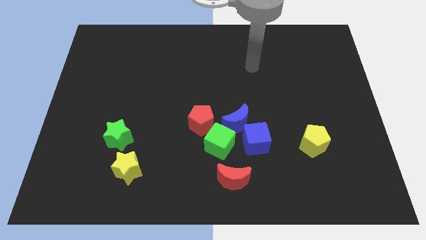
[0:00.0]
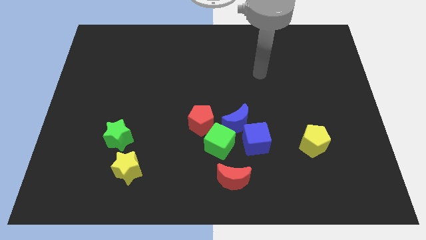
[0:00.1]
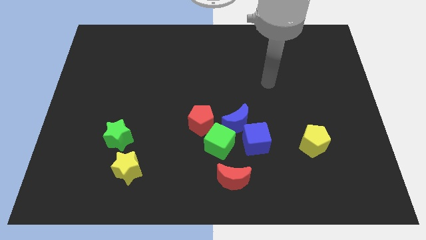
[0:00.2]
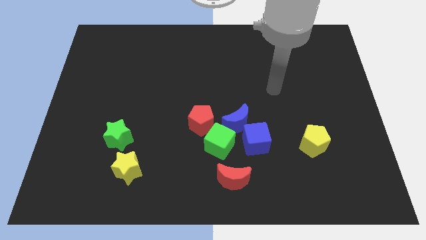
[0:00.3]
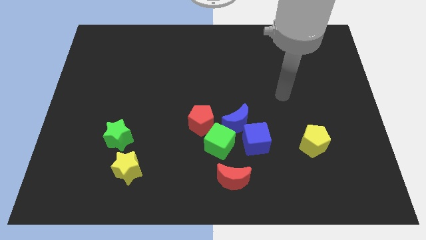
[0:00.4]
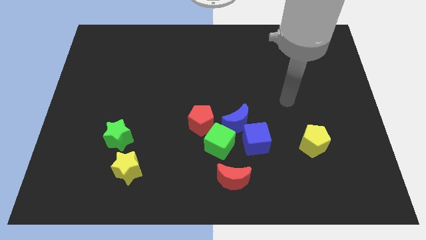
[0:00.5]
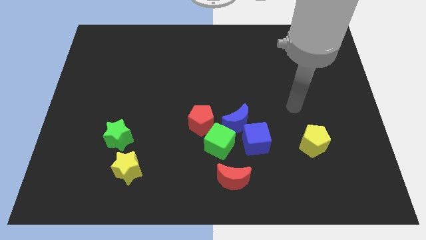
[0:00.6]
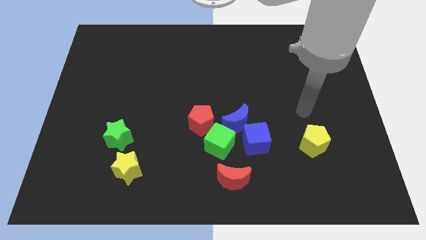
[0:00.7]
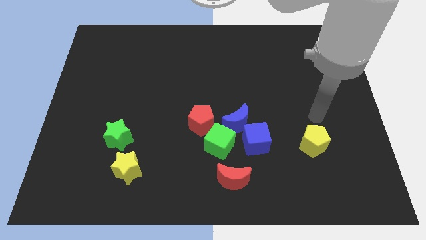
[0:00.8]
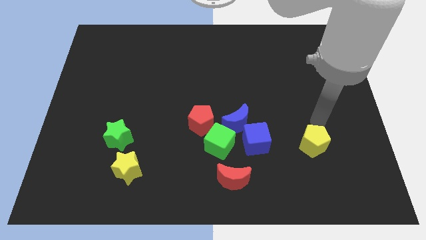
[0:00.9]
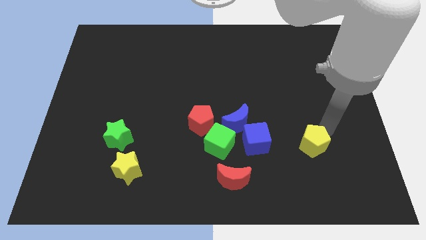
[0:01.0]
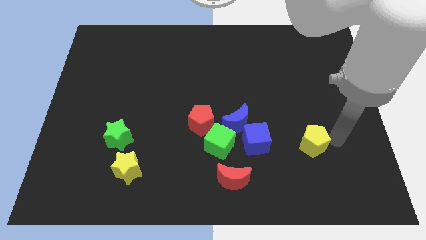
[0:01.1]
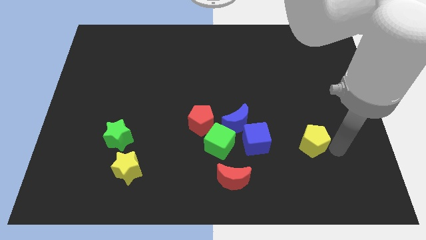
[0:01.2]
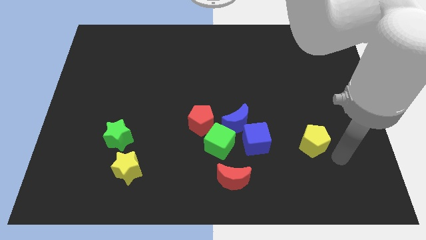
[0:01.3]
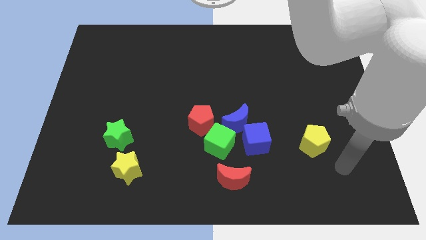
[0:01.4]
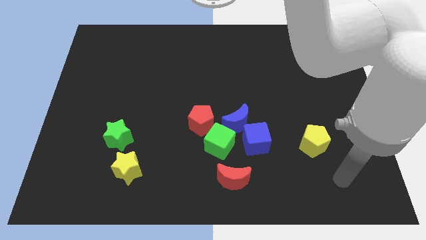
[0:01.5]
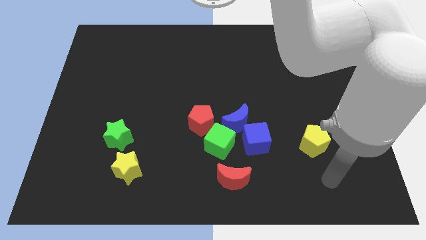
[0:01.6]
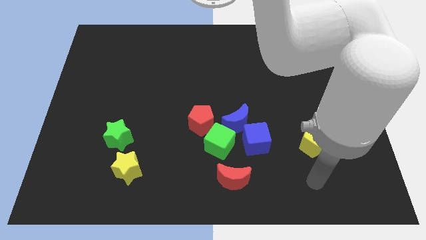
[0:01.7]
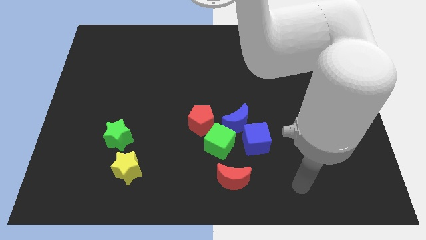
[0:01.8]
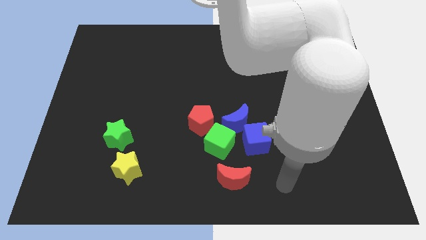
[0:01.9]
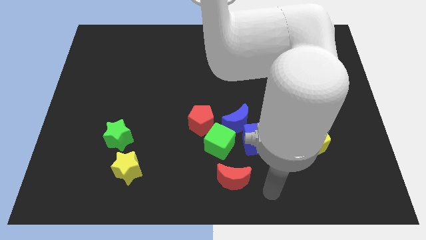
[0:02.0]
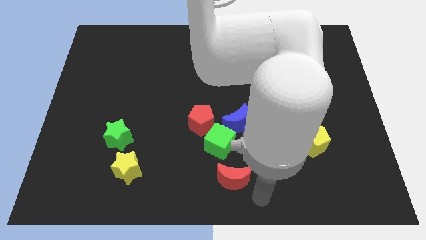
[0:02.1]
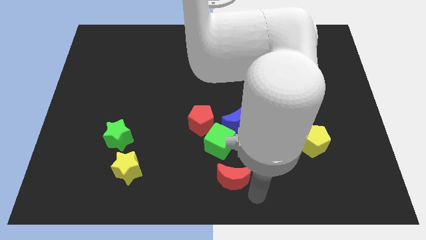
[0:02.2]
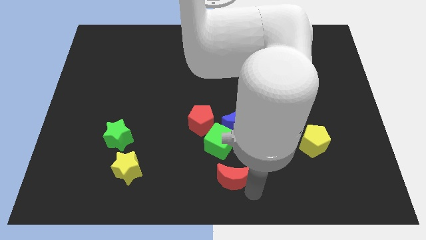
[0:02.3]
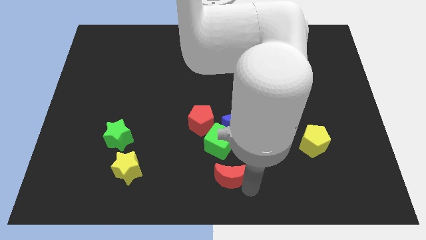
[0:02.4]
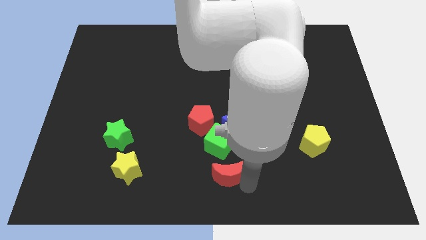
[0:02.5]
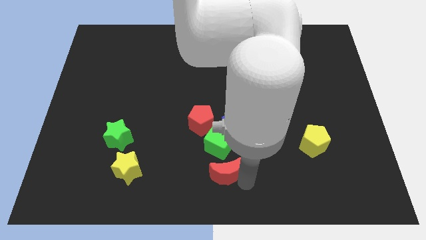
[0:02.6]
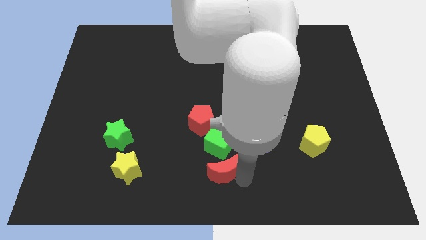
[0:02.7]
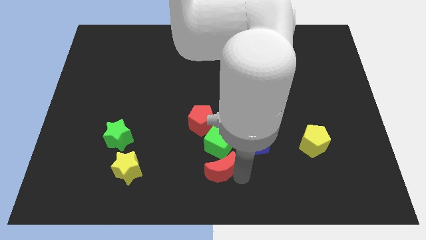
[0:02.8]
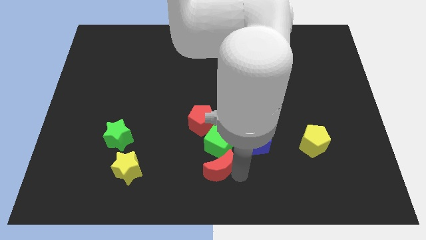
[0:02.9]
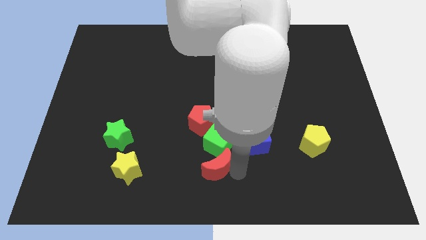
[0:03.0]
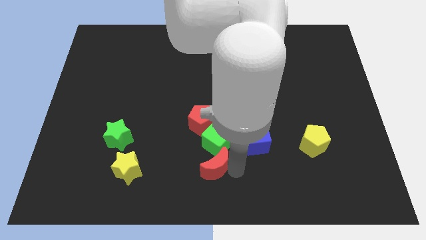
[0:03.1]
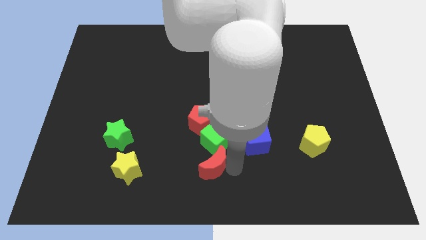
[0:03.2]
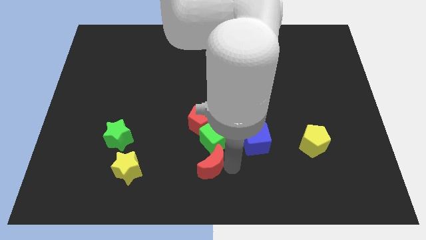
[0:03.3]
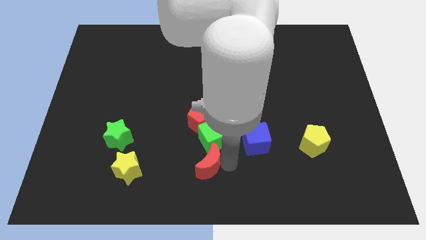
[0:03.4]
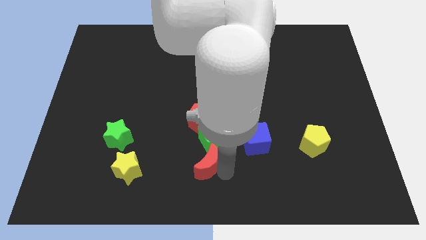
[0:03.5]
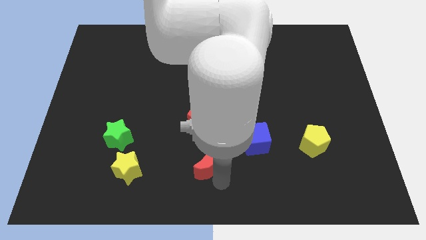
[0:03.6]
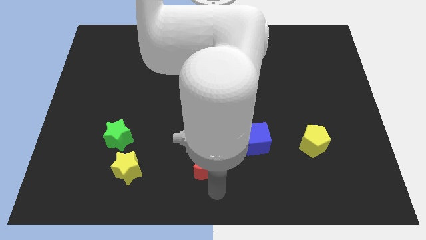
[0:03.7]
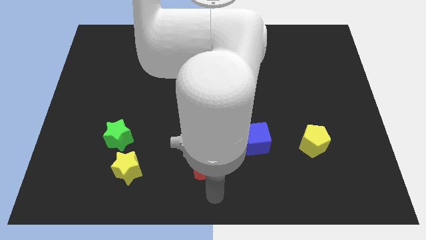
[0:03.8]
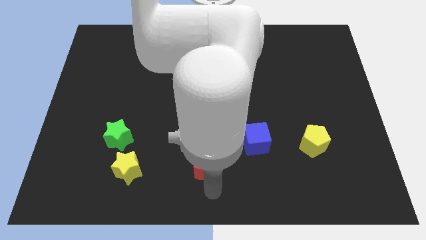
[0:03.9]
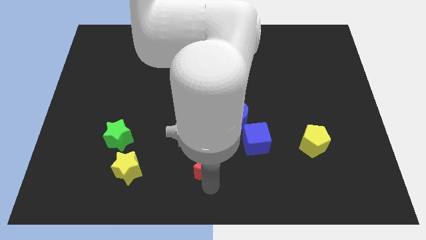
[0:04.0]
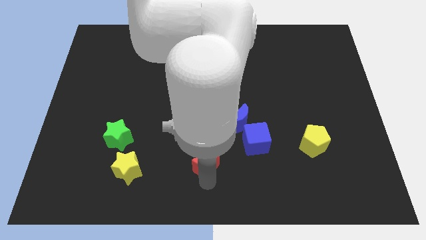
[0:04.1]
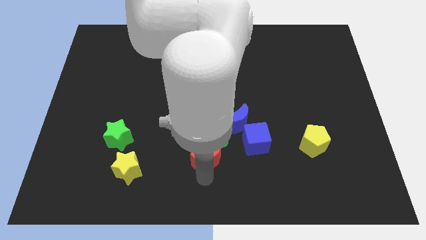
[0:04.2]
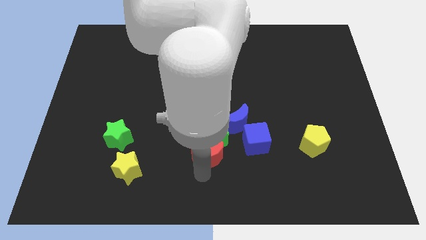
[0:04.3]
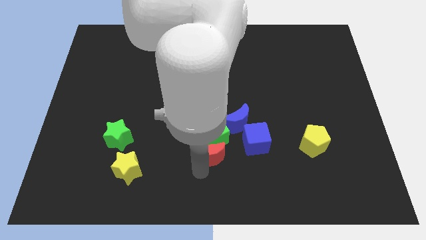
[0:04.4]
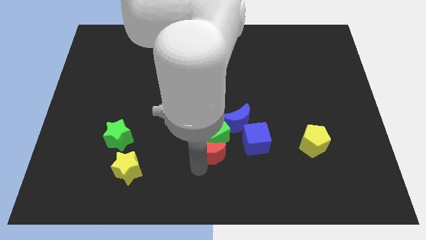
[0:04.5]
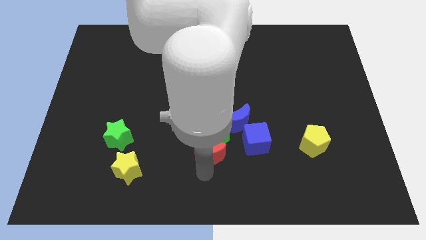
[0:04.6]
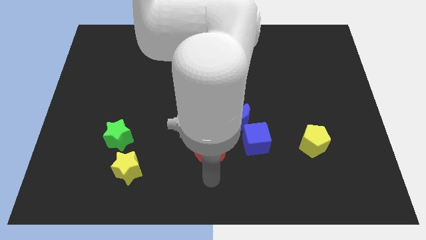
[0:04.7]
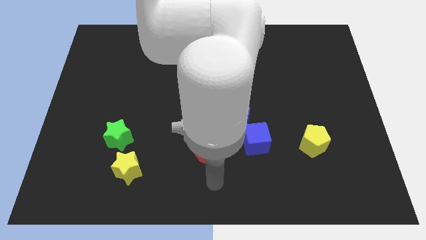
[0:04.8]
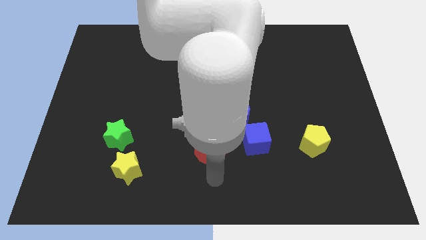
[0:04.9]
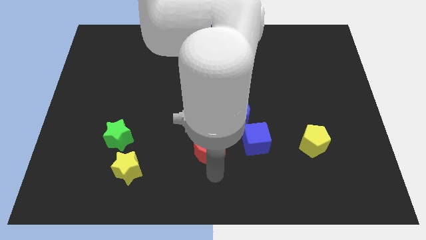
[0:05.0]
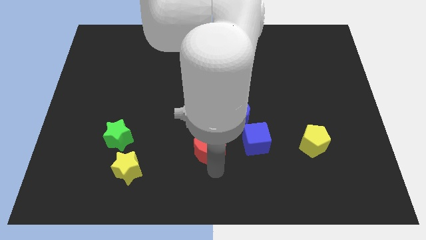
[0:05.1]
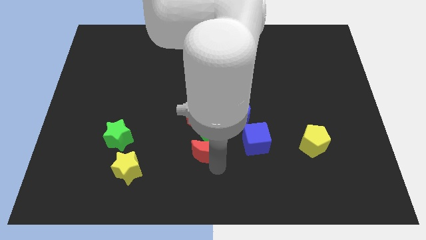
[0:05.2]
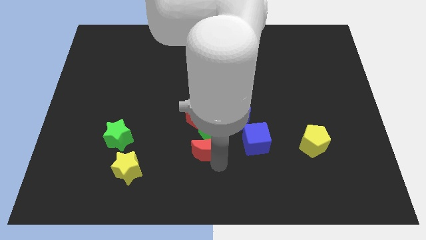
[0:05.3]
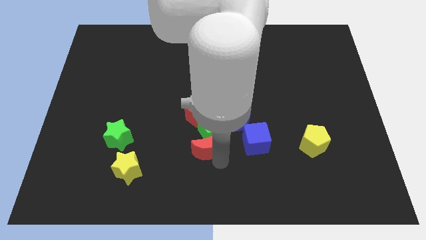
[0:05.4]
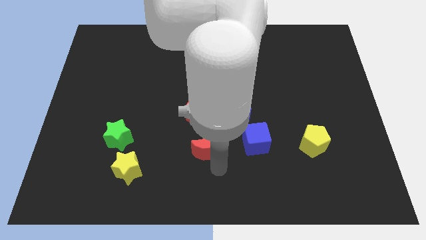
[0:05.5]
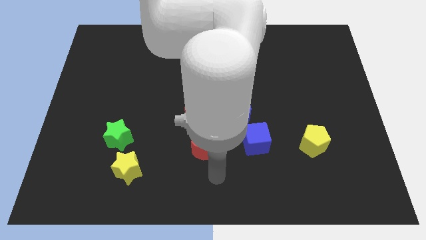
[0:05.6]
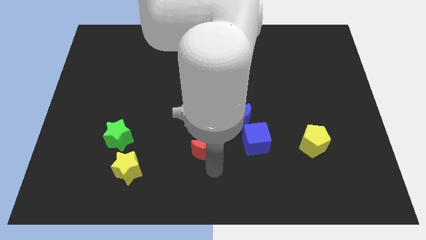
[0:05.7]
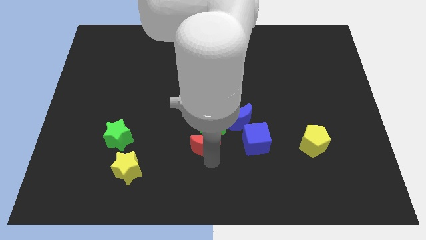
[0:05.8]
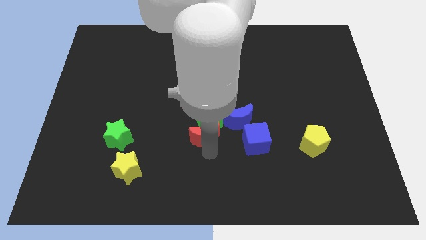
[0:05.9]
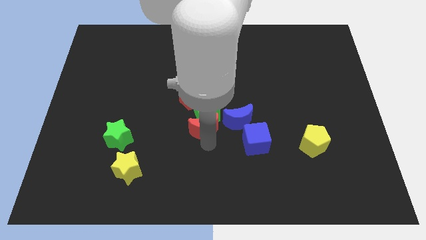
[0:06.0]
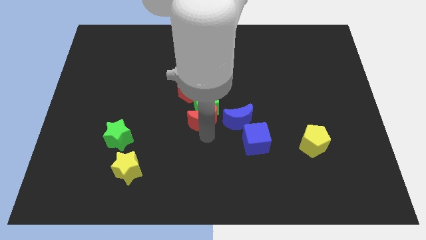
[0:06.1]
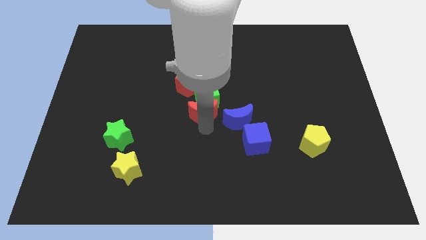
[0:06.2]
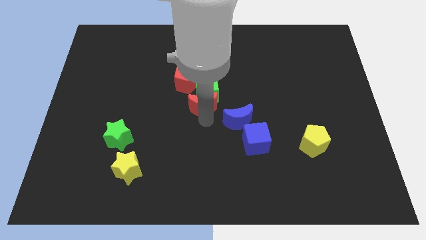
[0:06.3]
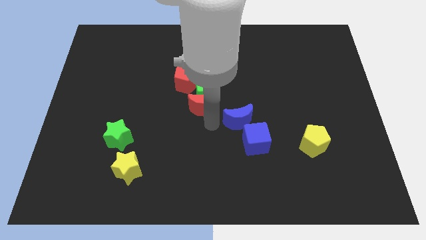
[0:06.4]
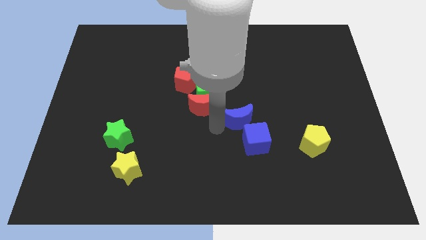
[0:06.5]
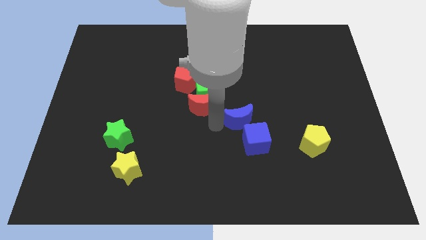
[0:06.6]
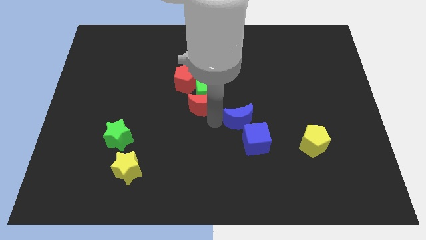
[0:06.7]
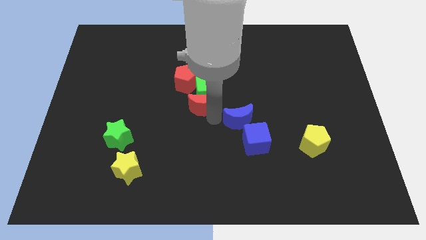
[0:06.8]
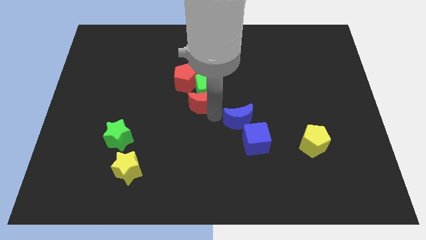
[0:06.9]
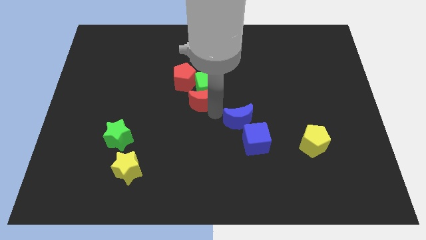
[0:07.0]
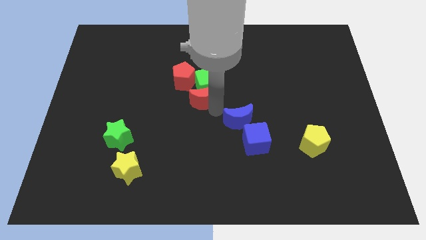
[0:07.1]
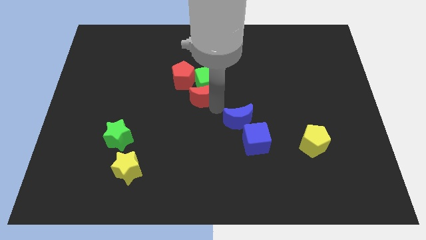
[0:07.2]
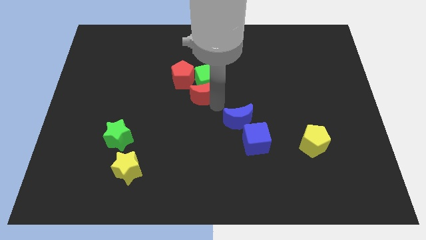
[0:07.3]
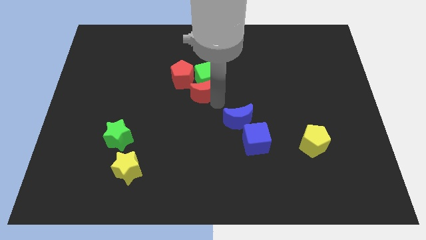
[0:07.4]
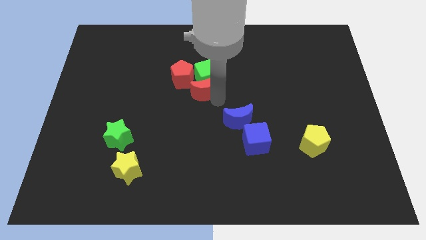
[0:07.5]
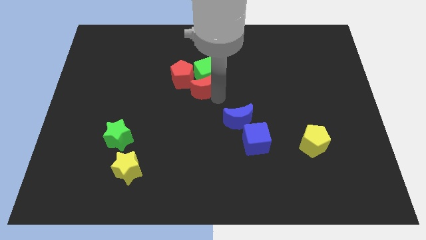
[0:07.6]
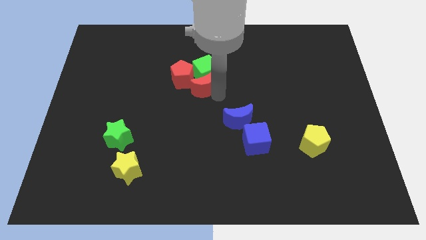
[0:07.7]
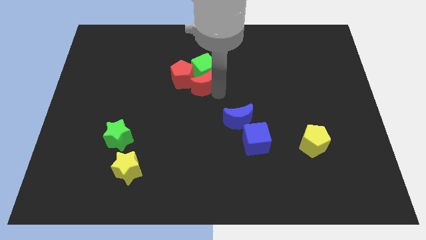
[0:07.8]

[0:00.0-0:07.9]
push the red moon towards the red pentagon
